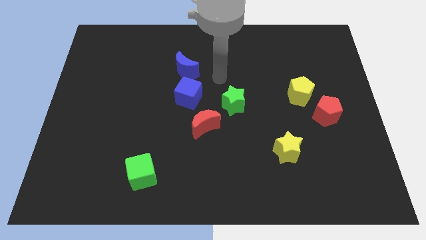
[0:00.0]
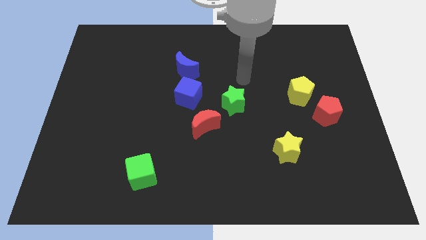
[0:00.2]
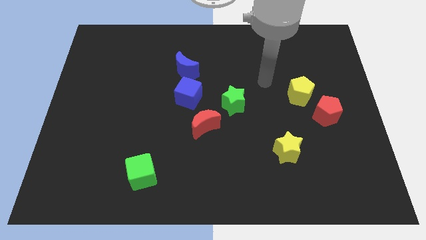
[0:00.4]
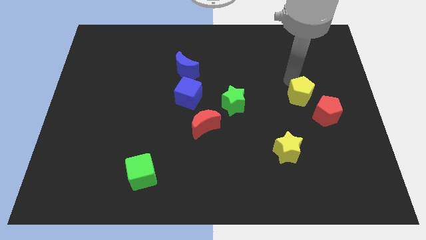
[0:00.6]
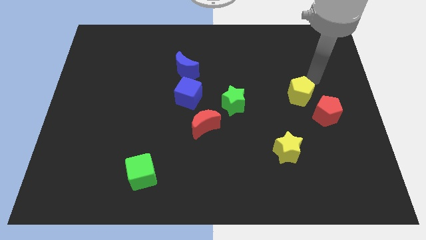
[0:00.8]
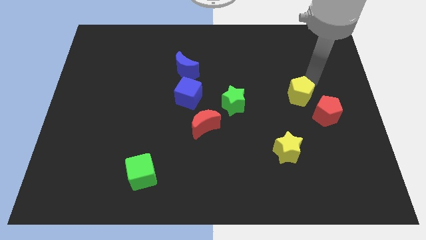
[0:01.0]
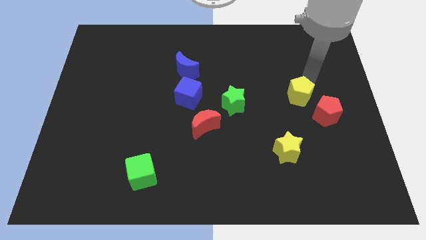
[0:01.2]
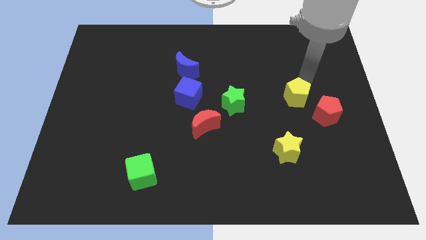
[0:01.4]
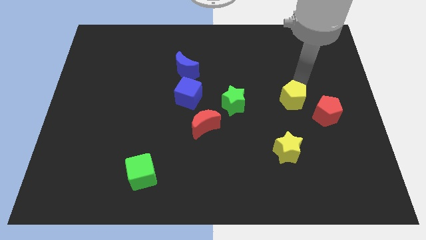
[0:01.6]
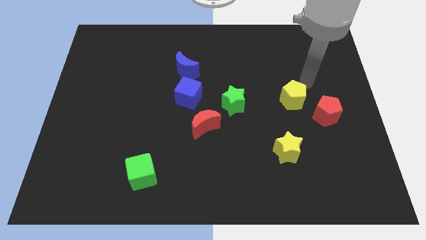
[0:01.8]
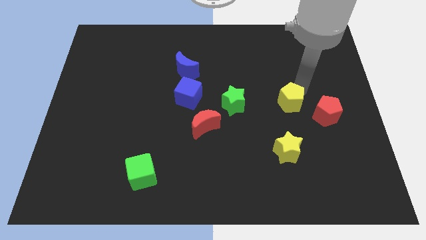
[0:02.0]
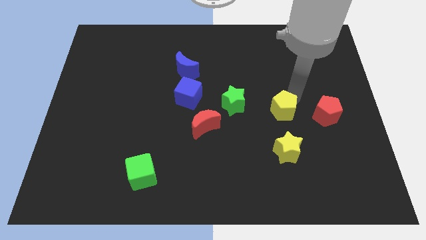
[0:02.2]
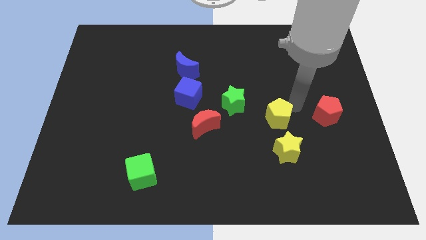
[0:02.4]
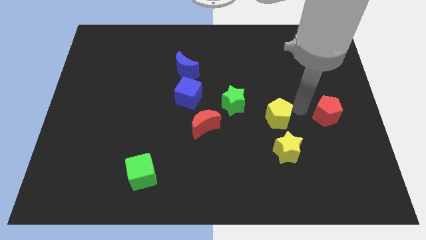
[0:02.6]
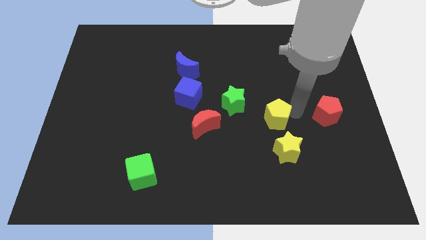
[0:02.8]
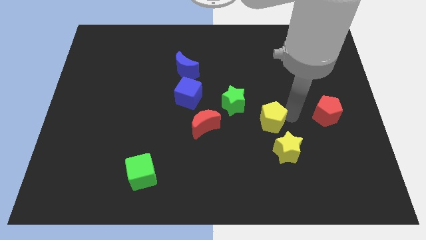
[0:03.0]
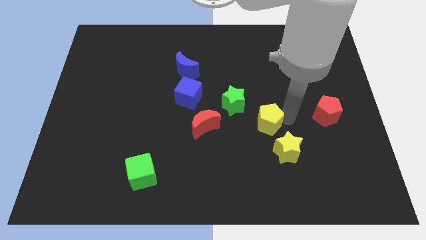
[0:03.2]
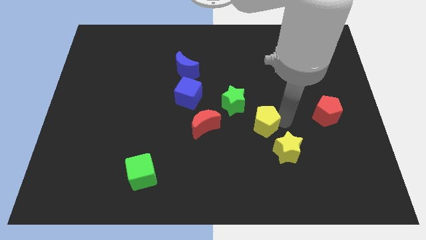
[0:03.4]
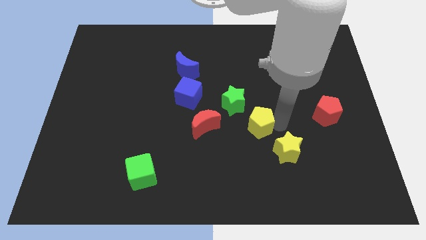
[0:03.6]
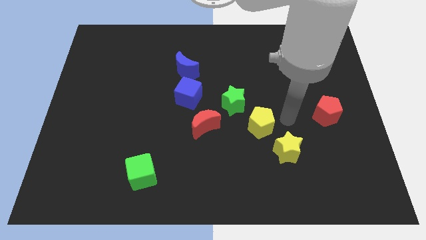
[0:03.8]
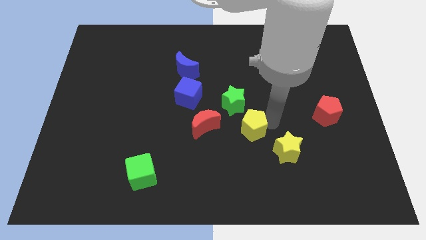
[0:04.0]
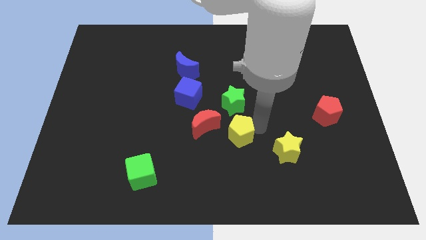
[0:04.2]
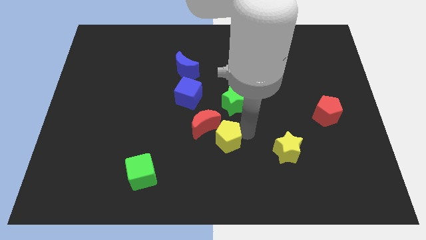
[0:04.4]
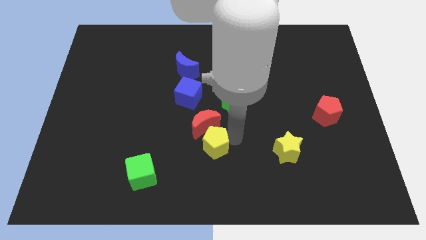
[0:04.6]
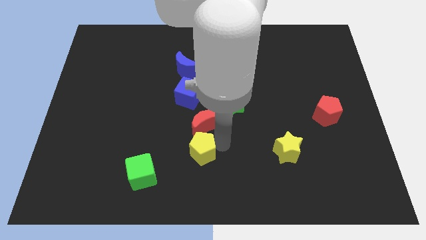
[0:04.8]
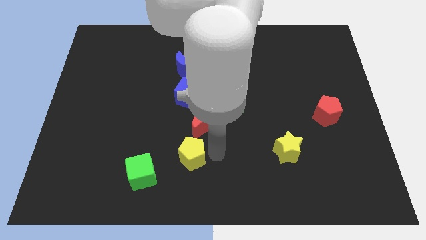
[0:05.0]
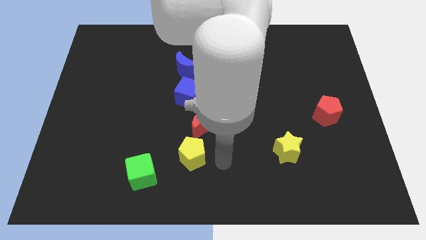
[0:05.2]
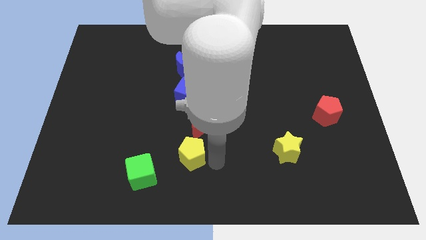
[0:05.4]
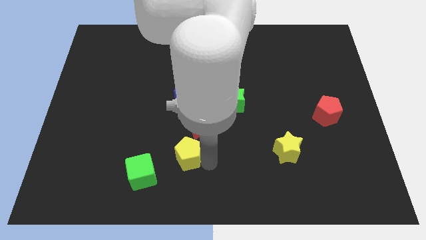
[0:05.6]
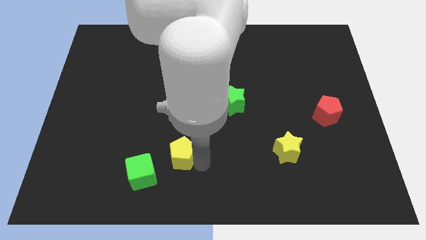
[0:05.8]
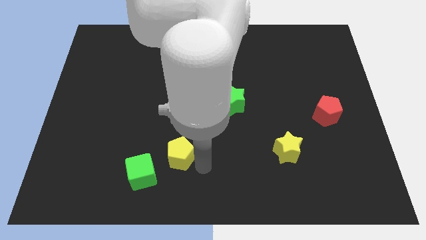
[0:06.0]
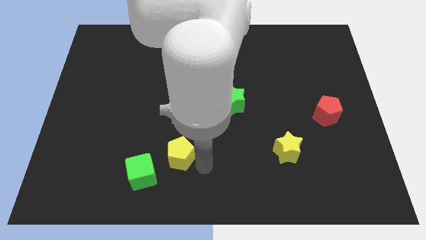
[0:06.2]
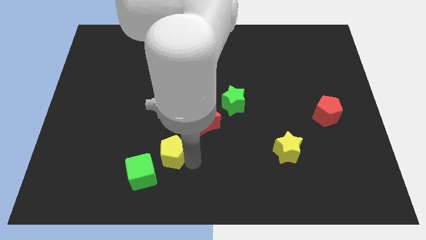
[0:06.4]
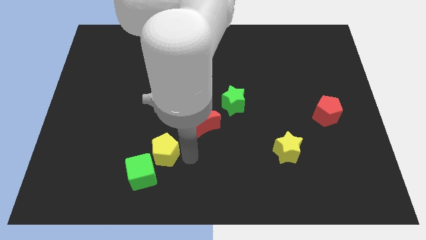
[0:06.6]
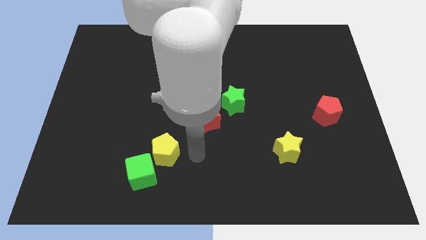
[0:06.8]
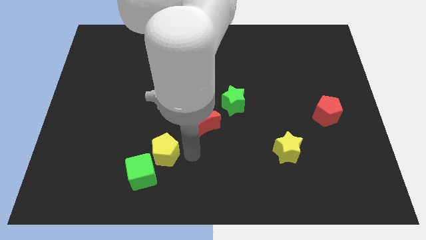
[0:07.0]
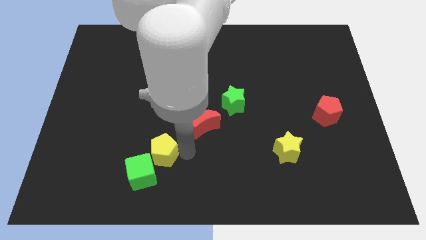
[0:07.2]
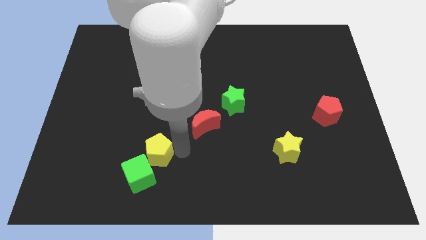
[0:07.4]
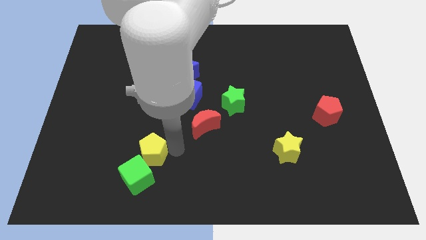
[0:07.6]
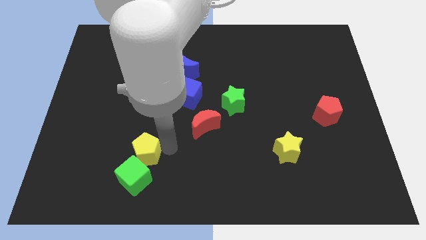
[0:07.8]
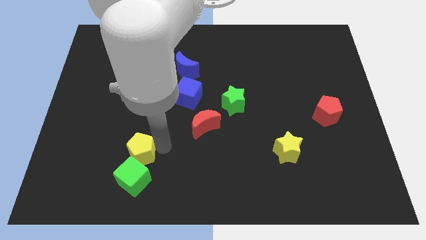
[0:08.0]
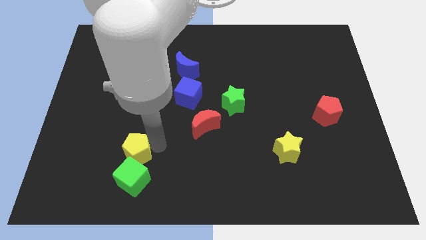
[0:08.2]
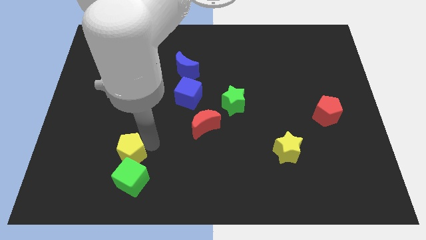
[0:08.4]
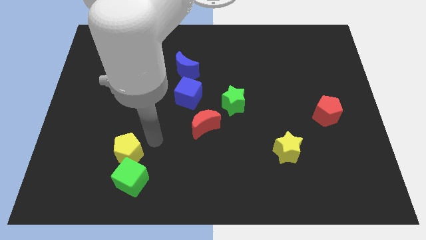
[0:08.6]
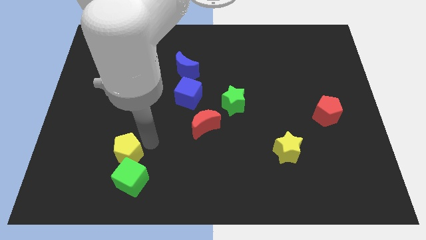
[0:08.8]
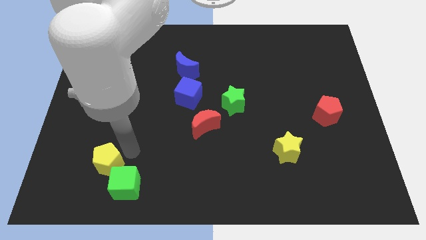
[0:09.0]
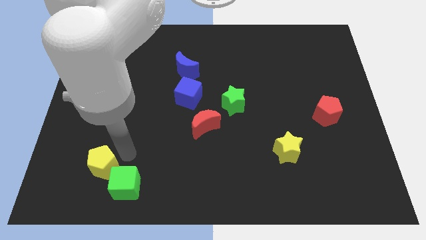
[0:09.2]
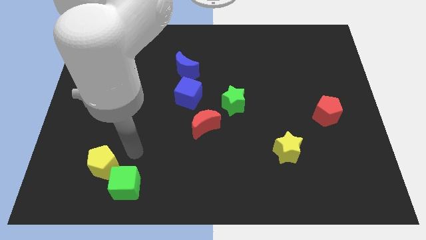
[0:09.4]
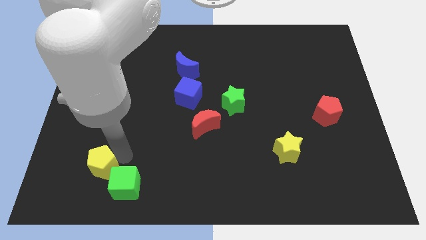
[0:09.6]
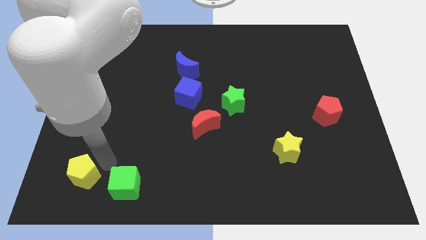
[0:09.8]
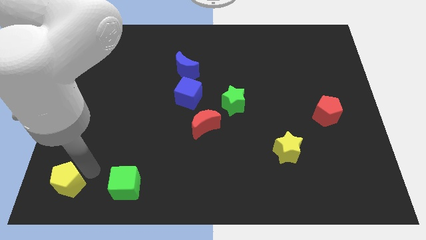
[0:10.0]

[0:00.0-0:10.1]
move the yellow pentagon to the lower left corner

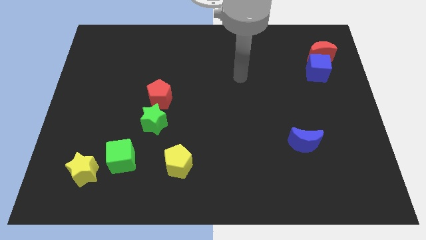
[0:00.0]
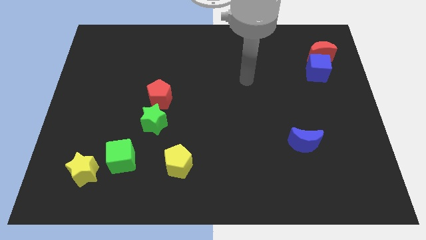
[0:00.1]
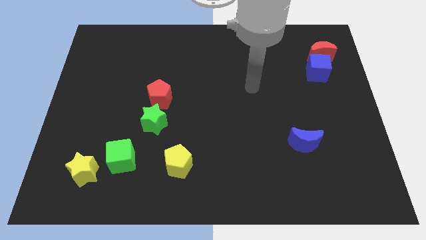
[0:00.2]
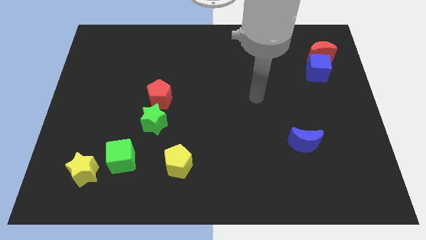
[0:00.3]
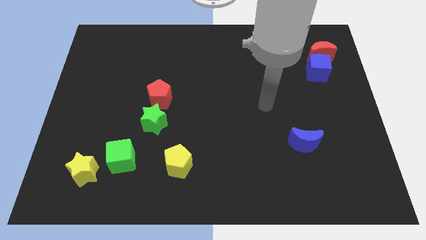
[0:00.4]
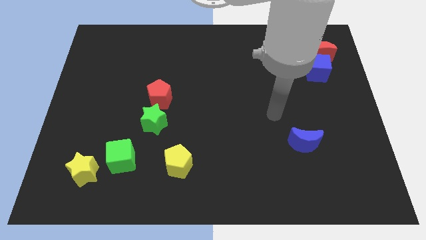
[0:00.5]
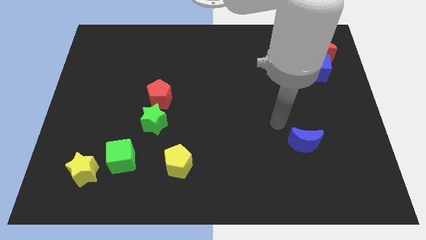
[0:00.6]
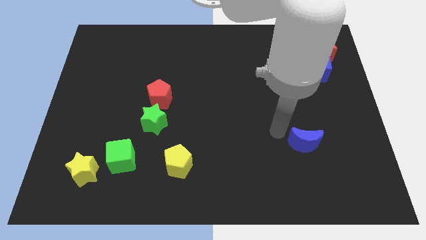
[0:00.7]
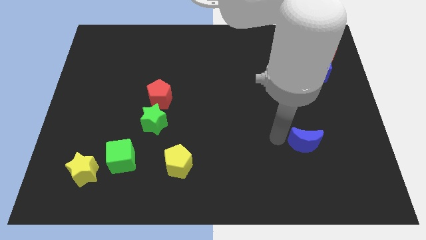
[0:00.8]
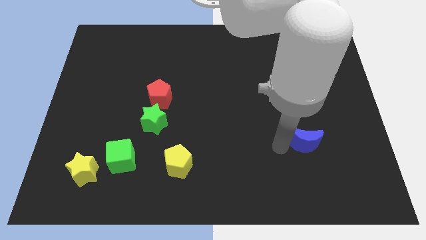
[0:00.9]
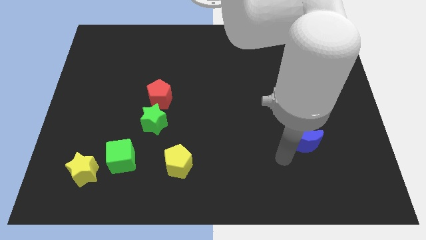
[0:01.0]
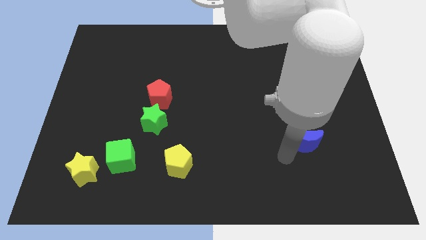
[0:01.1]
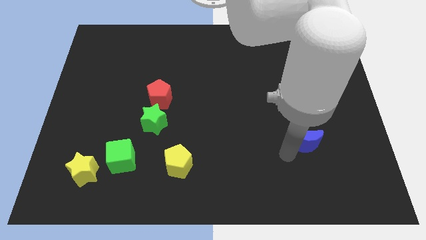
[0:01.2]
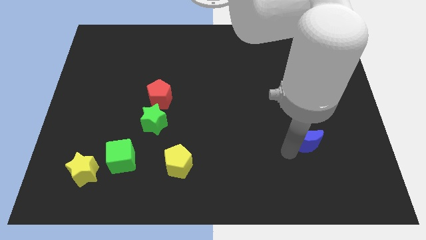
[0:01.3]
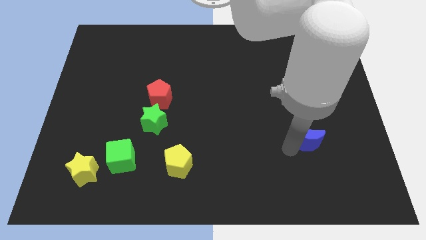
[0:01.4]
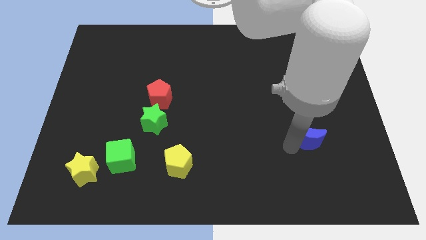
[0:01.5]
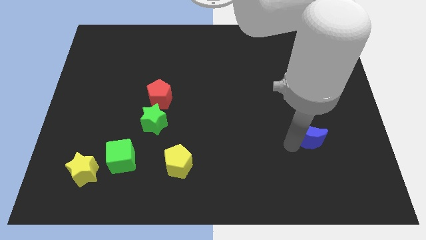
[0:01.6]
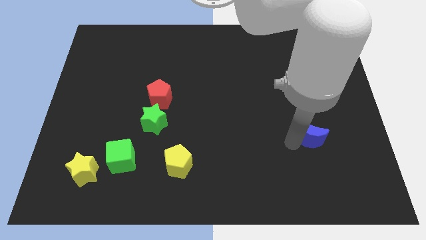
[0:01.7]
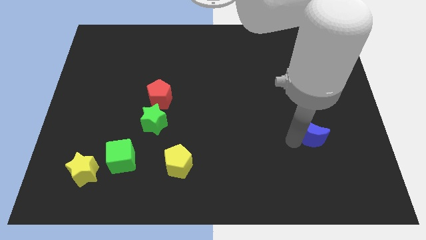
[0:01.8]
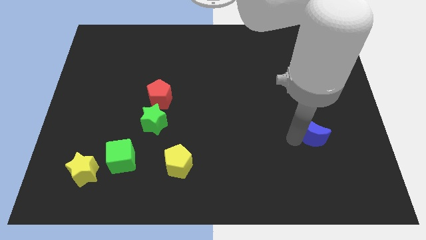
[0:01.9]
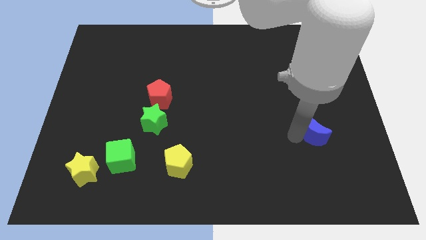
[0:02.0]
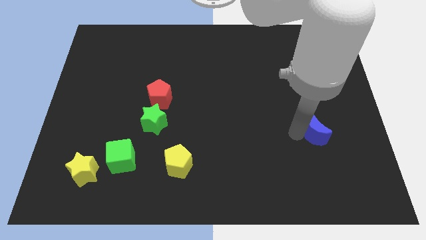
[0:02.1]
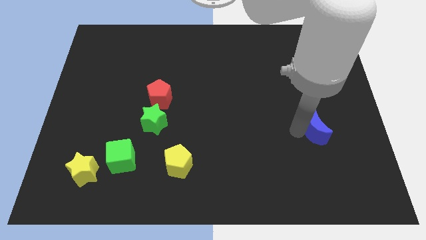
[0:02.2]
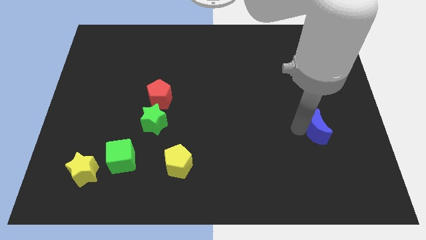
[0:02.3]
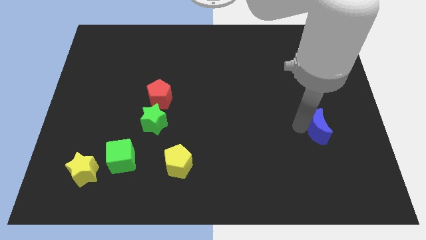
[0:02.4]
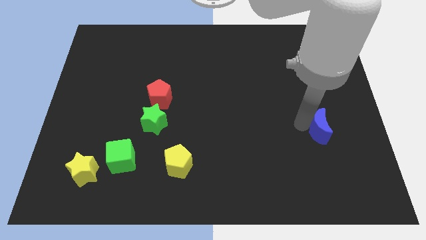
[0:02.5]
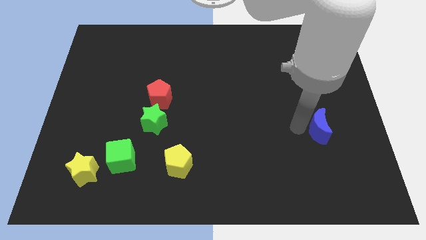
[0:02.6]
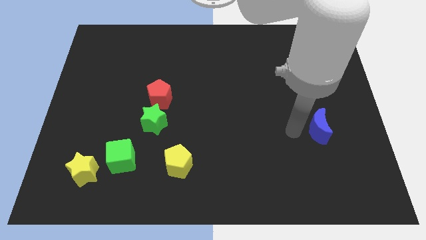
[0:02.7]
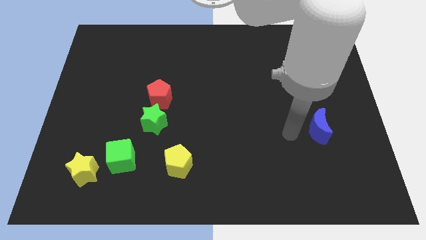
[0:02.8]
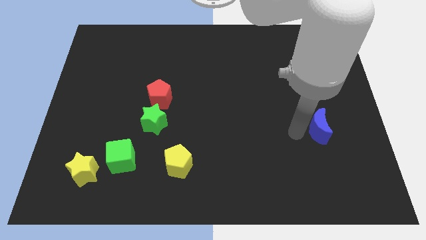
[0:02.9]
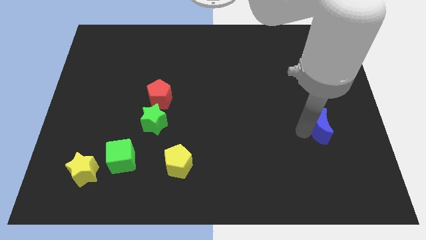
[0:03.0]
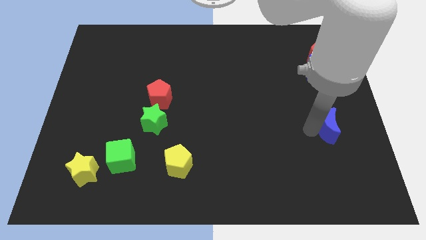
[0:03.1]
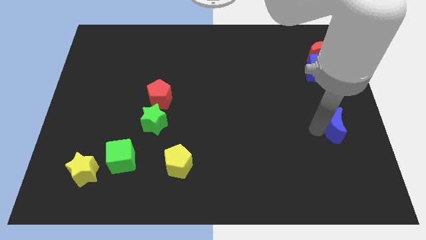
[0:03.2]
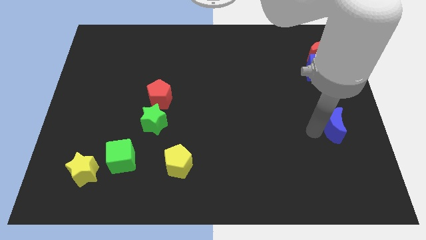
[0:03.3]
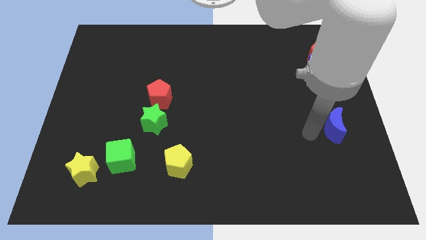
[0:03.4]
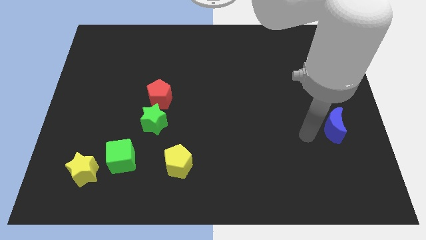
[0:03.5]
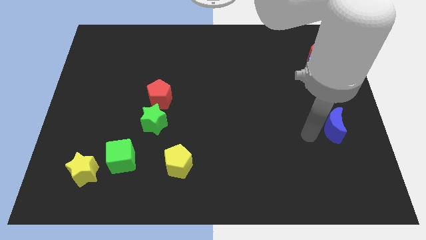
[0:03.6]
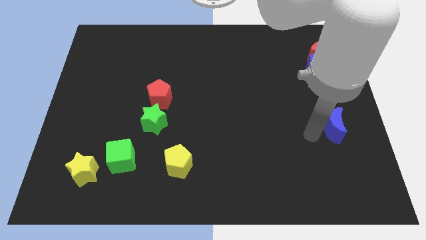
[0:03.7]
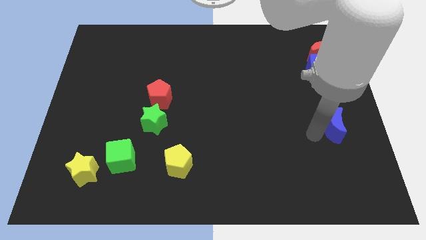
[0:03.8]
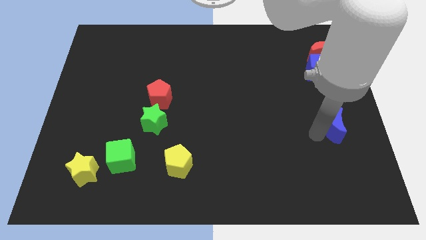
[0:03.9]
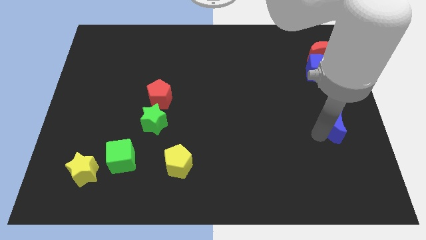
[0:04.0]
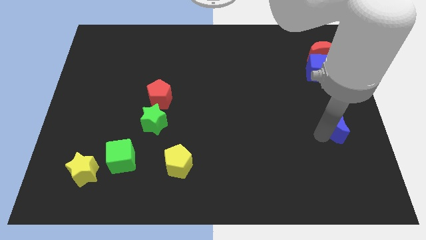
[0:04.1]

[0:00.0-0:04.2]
slide the blue moon to the right side
